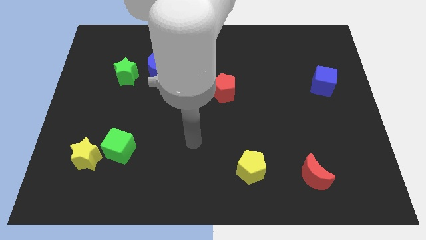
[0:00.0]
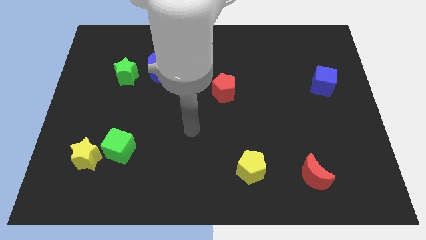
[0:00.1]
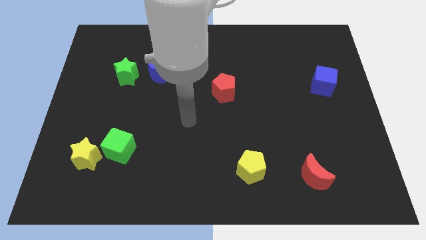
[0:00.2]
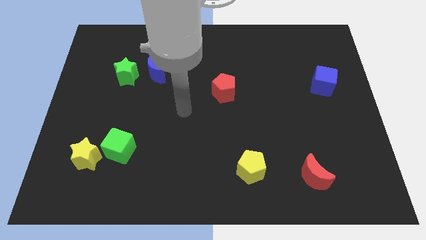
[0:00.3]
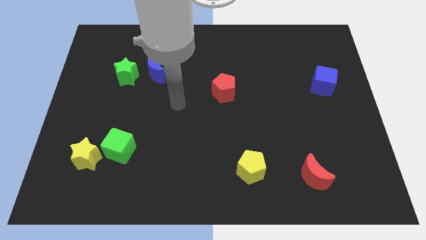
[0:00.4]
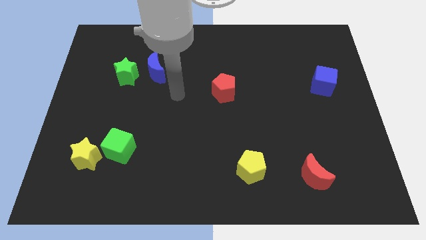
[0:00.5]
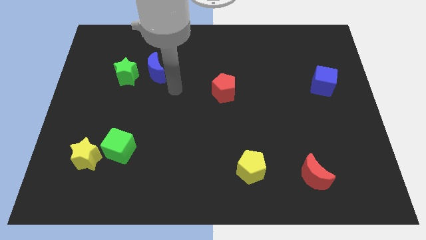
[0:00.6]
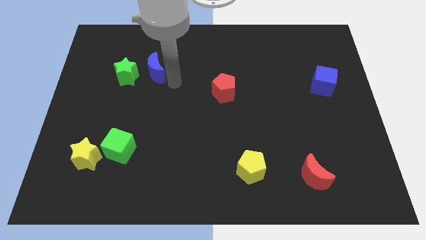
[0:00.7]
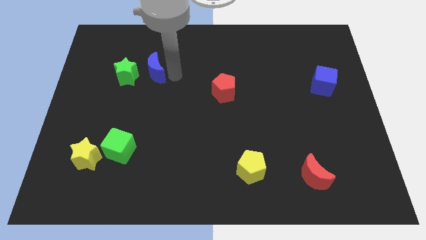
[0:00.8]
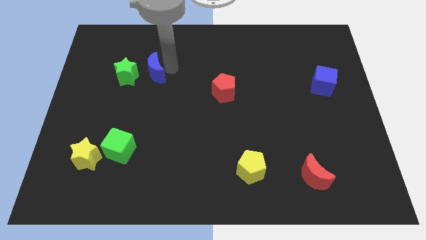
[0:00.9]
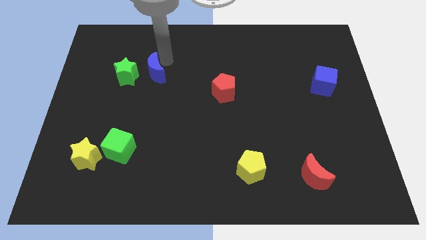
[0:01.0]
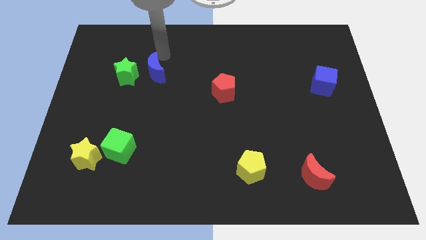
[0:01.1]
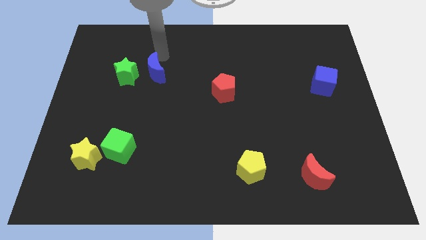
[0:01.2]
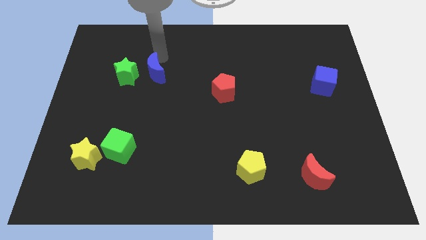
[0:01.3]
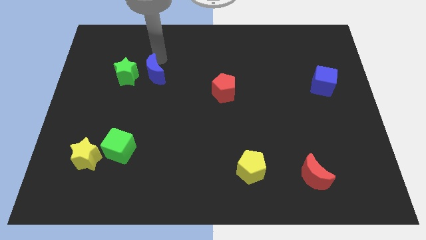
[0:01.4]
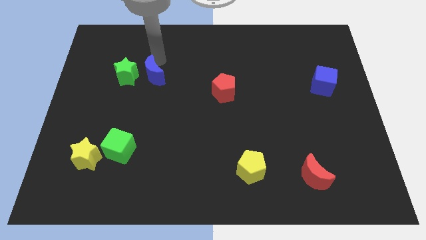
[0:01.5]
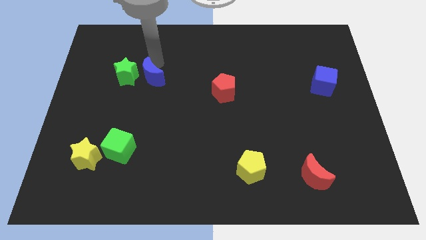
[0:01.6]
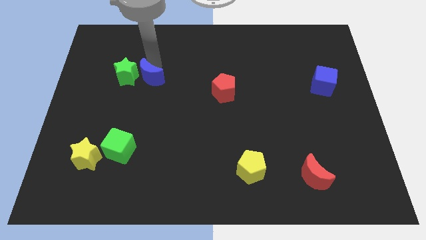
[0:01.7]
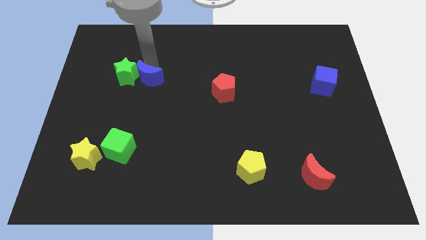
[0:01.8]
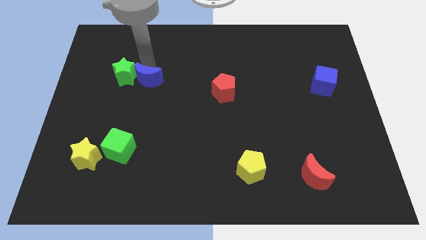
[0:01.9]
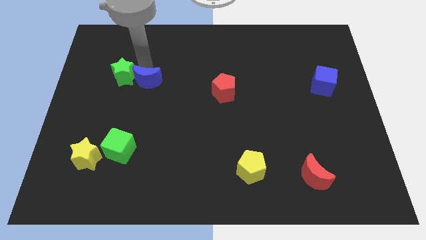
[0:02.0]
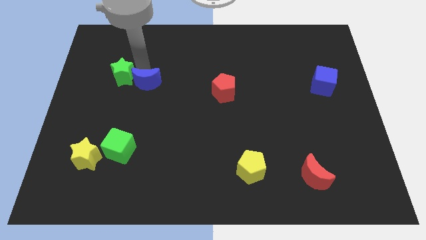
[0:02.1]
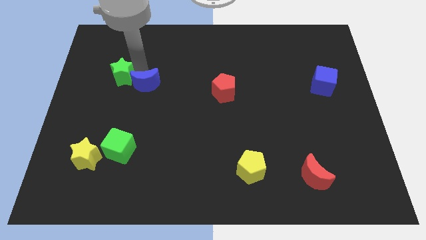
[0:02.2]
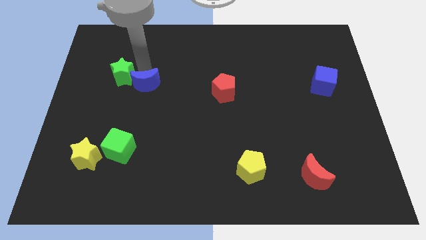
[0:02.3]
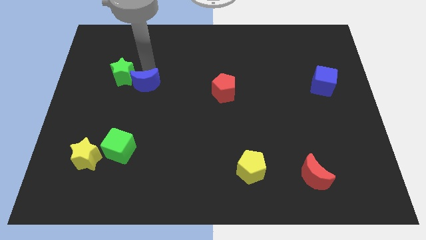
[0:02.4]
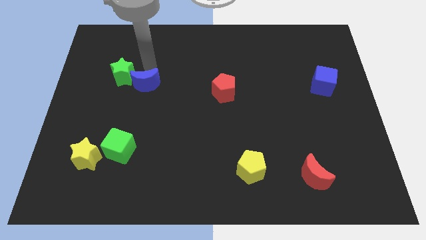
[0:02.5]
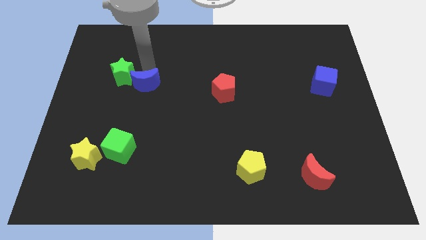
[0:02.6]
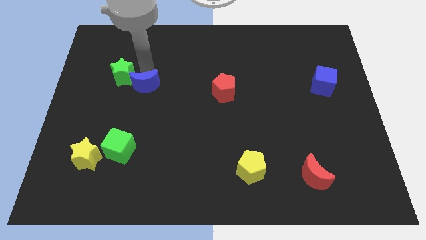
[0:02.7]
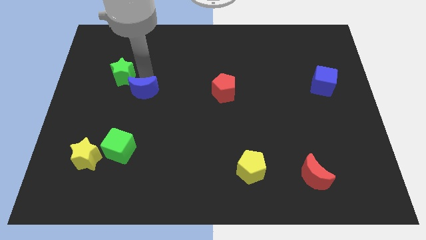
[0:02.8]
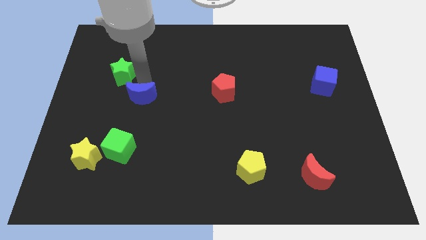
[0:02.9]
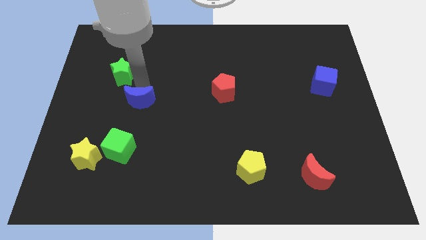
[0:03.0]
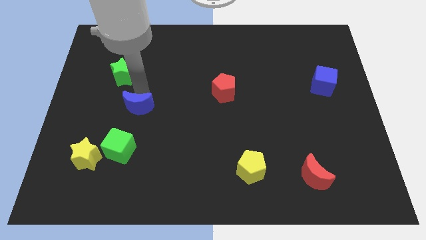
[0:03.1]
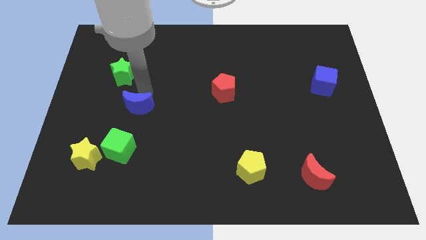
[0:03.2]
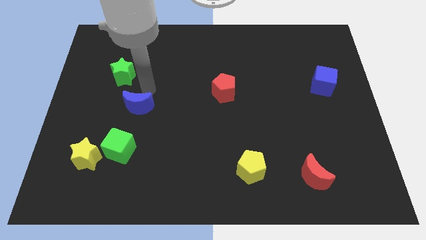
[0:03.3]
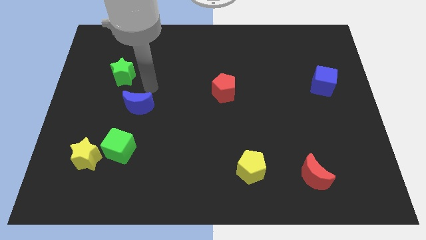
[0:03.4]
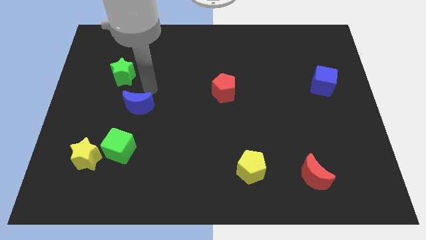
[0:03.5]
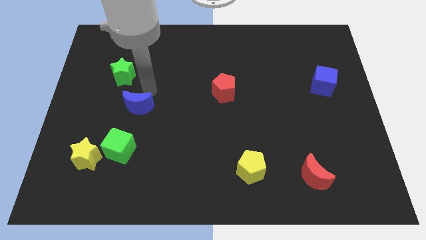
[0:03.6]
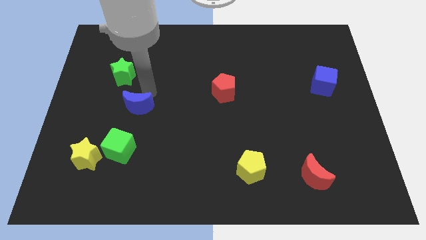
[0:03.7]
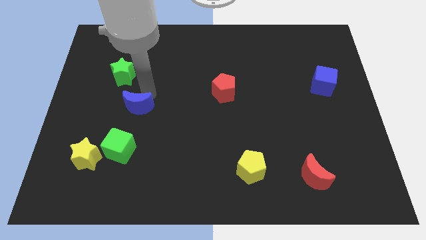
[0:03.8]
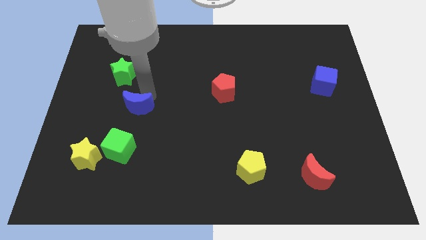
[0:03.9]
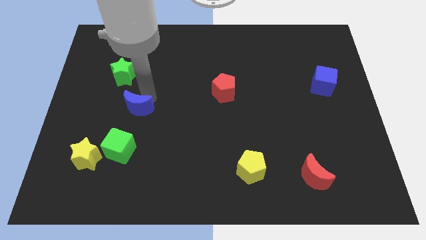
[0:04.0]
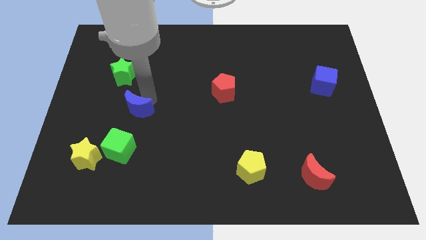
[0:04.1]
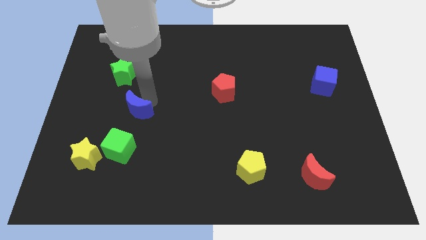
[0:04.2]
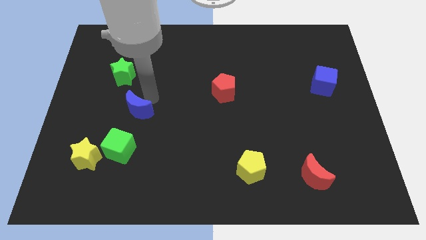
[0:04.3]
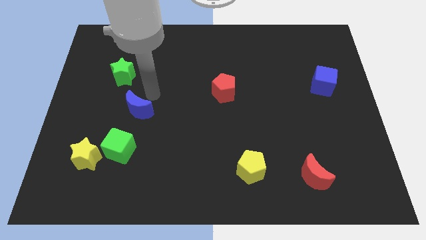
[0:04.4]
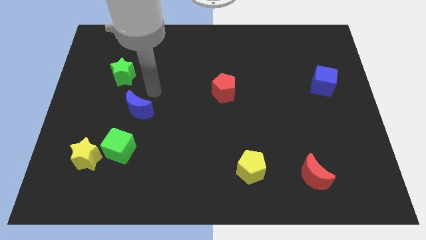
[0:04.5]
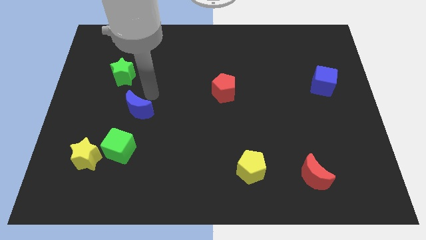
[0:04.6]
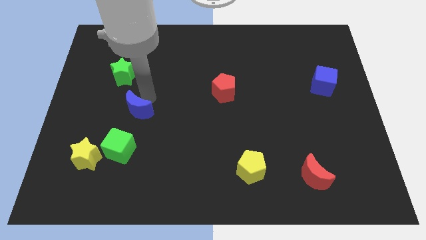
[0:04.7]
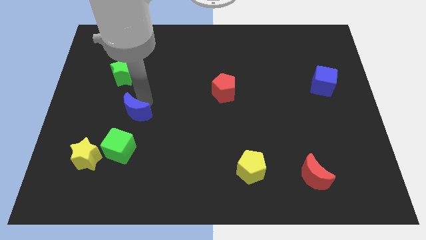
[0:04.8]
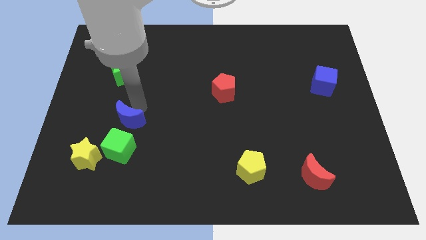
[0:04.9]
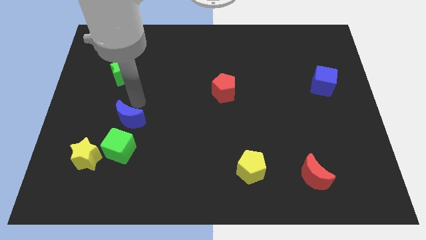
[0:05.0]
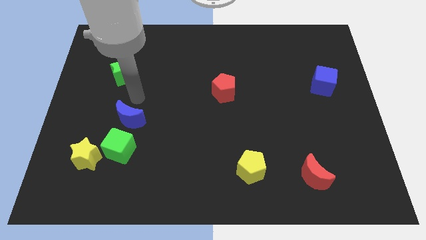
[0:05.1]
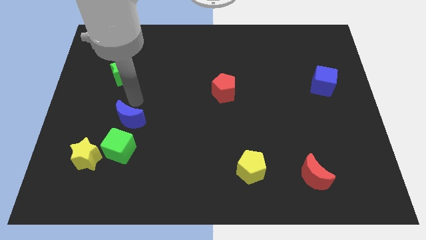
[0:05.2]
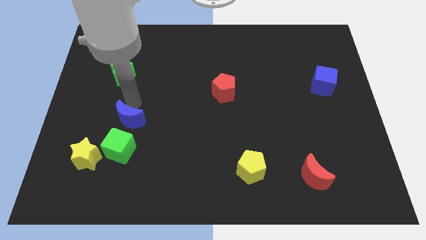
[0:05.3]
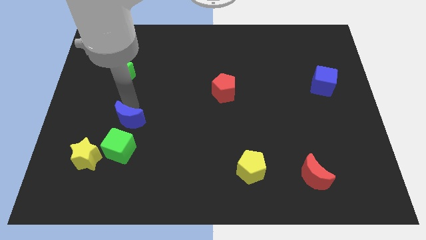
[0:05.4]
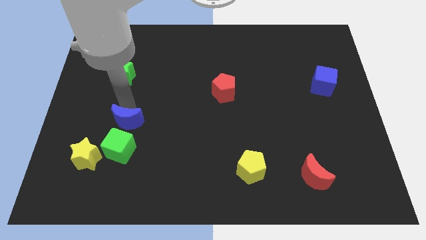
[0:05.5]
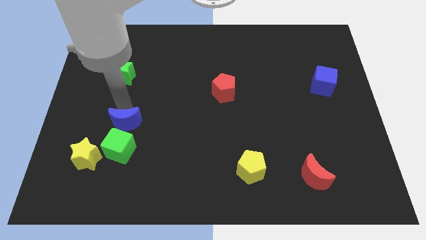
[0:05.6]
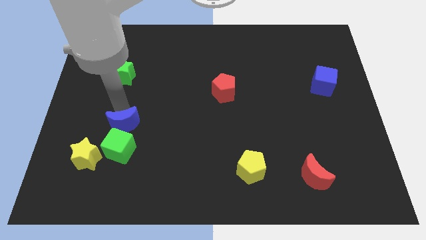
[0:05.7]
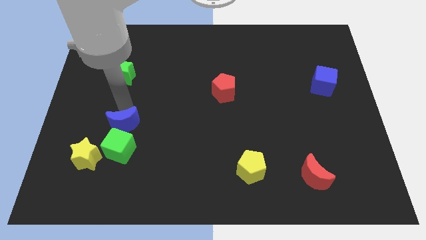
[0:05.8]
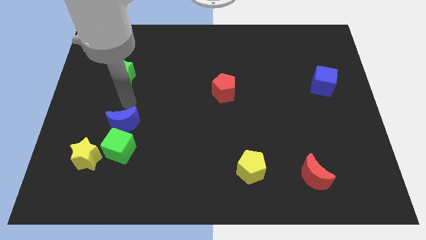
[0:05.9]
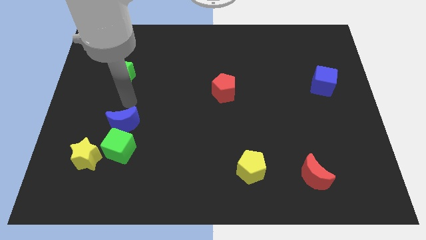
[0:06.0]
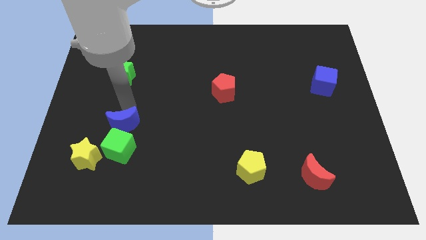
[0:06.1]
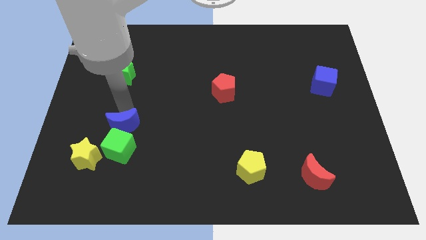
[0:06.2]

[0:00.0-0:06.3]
move the blue moon to the green cube
